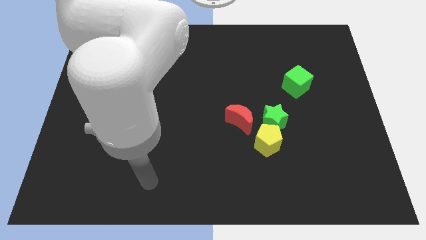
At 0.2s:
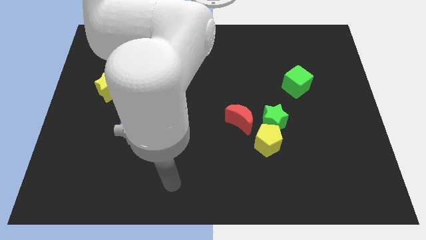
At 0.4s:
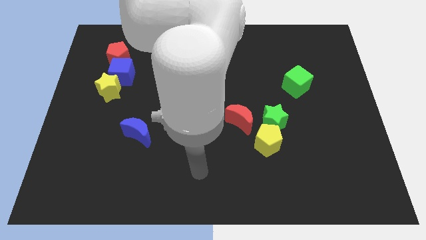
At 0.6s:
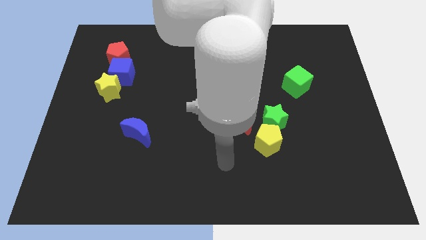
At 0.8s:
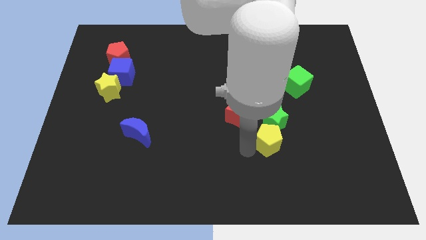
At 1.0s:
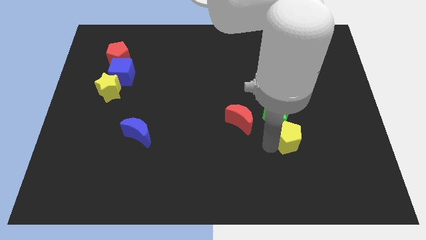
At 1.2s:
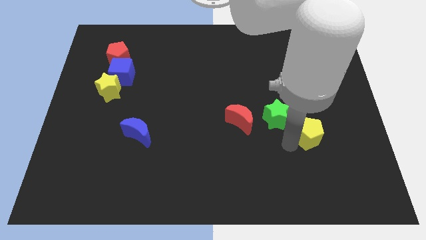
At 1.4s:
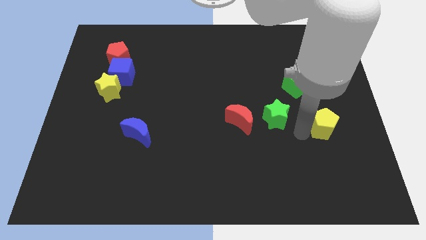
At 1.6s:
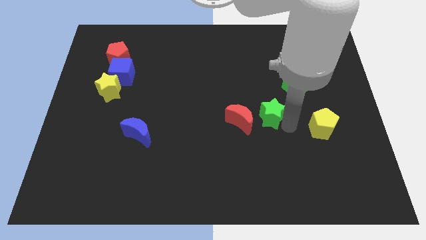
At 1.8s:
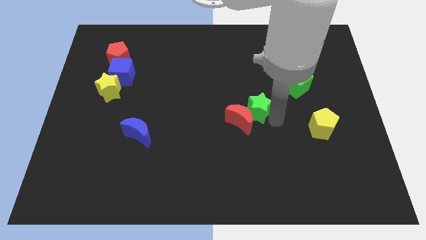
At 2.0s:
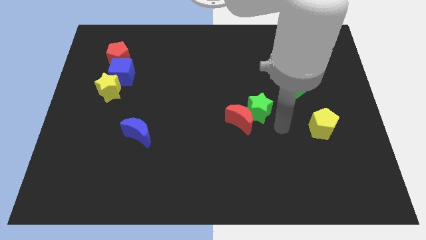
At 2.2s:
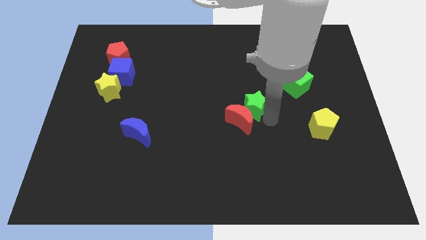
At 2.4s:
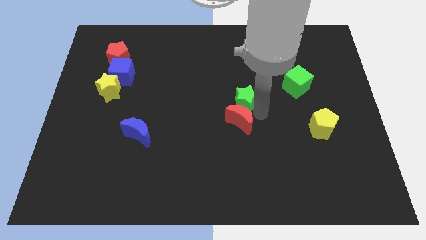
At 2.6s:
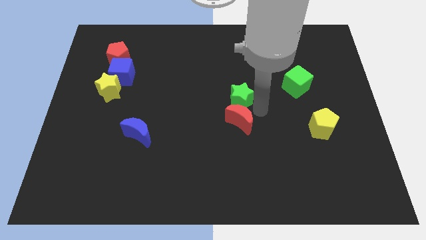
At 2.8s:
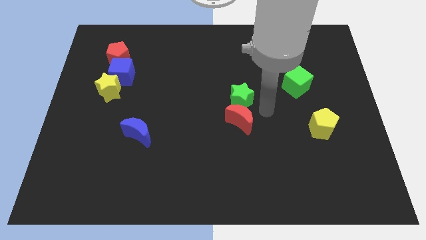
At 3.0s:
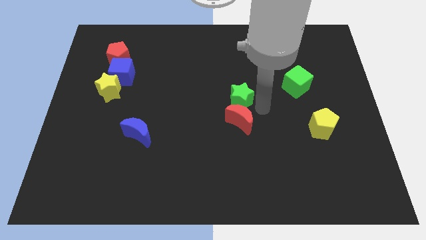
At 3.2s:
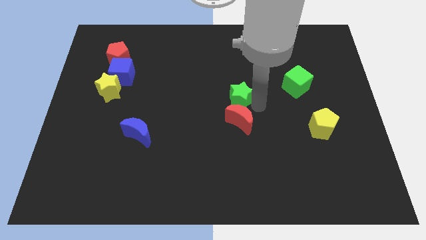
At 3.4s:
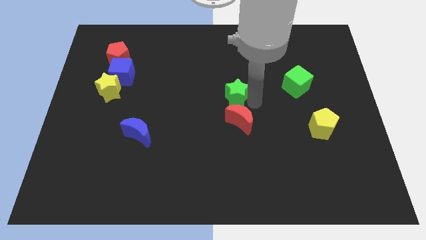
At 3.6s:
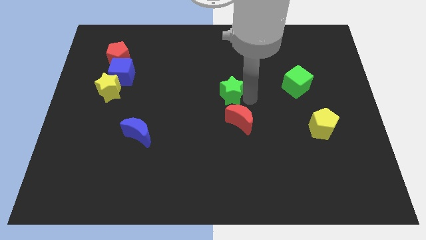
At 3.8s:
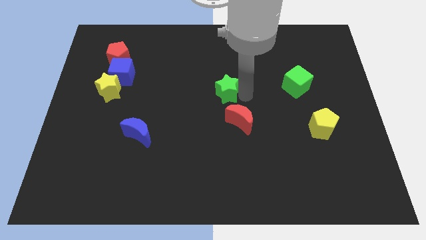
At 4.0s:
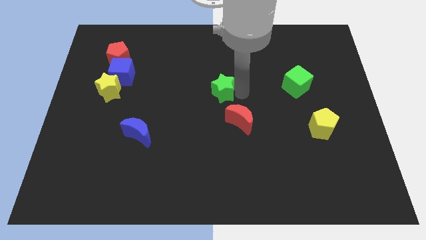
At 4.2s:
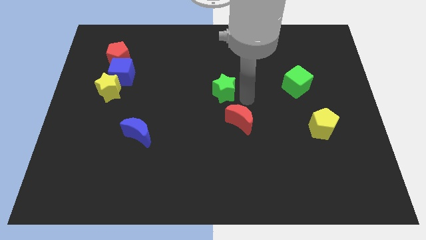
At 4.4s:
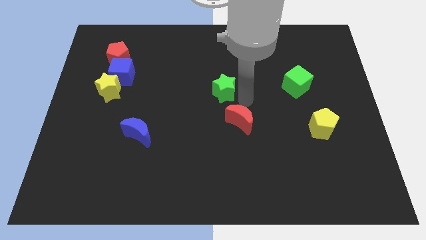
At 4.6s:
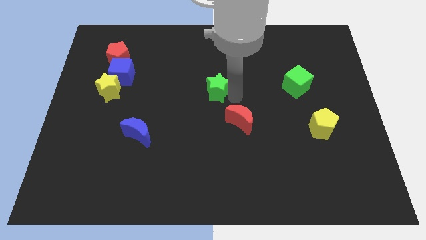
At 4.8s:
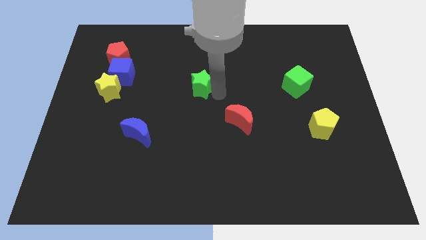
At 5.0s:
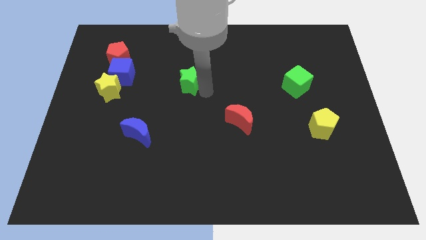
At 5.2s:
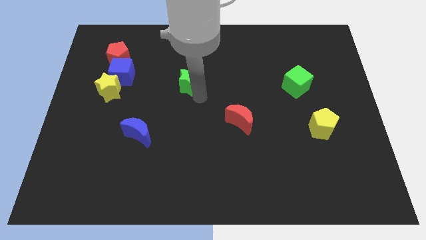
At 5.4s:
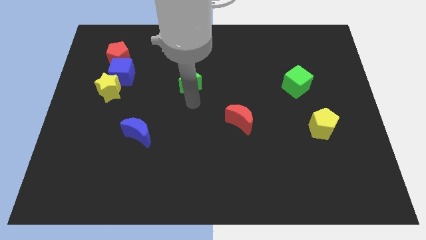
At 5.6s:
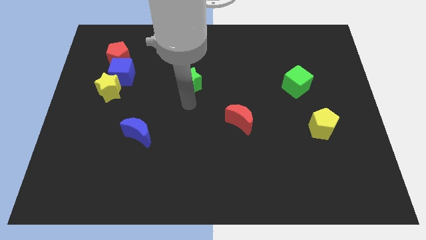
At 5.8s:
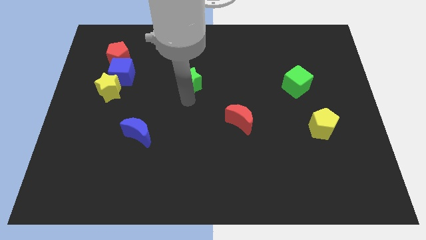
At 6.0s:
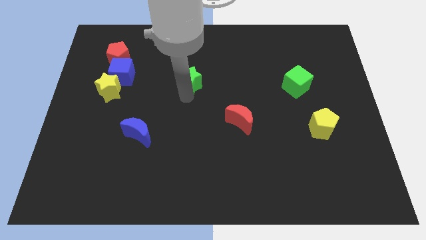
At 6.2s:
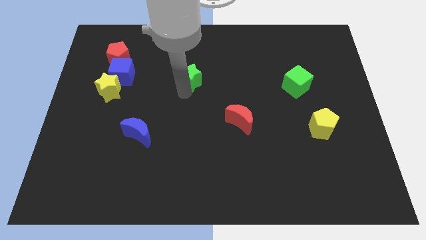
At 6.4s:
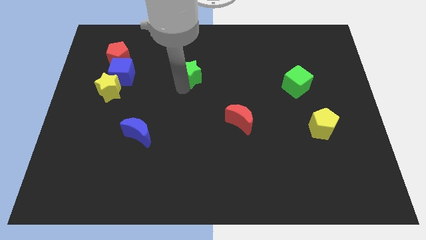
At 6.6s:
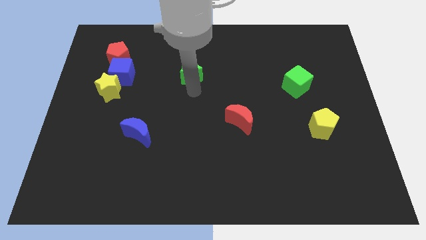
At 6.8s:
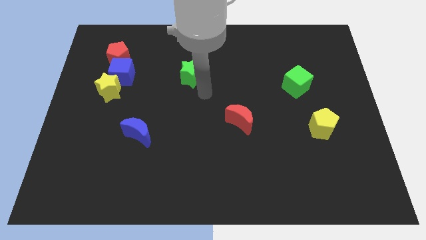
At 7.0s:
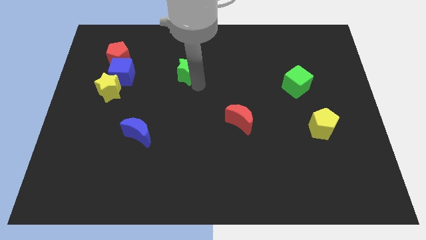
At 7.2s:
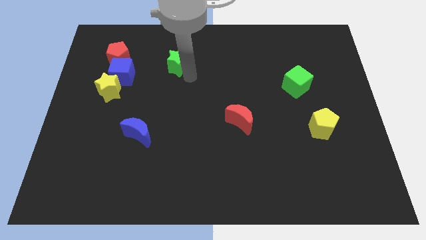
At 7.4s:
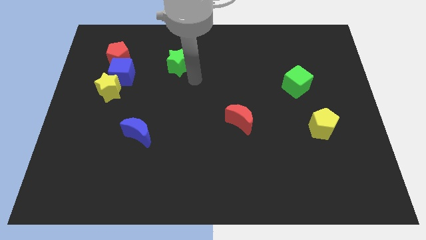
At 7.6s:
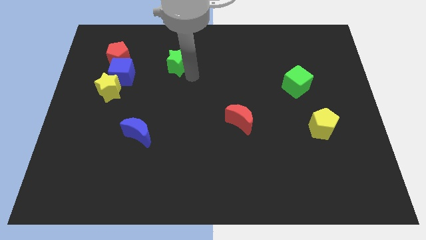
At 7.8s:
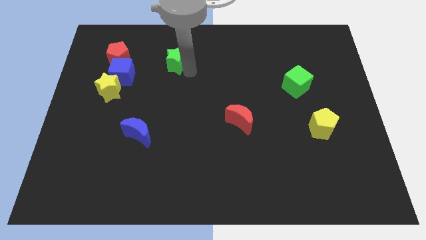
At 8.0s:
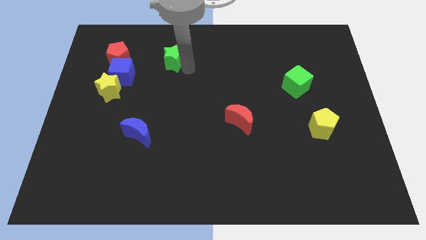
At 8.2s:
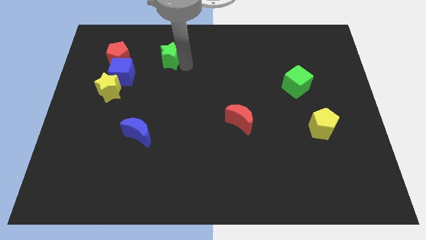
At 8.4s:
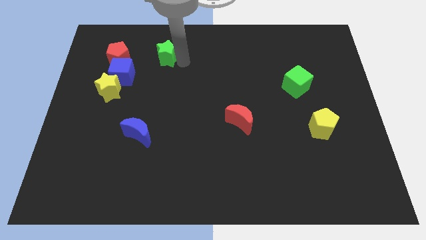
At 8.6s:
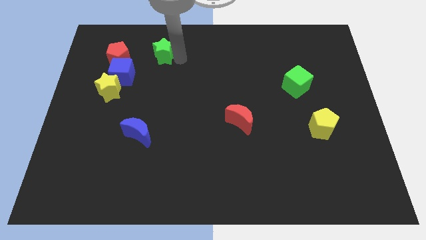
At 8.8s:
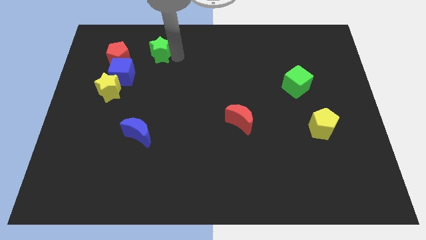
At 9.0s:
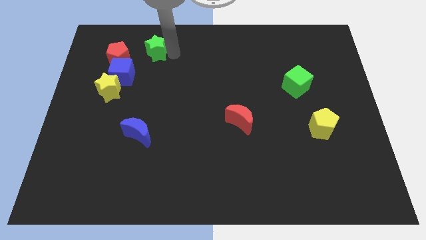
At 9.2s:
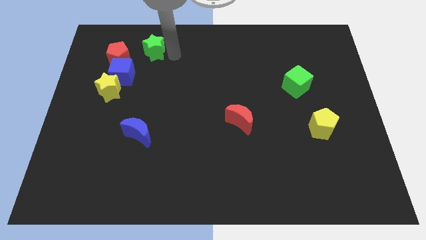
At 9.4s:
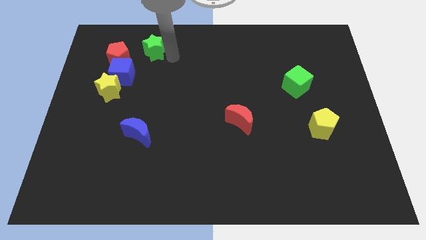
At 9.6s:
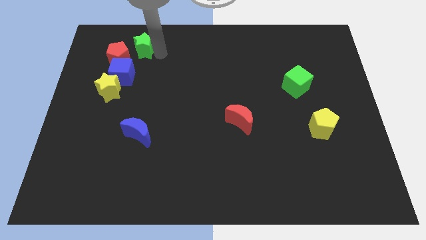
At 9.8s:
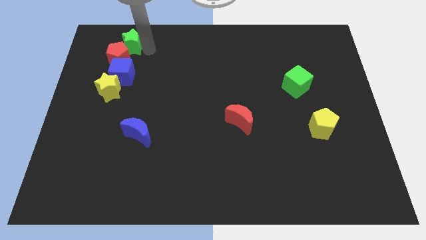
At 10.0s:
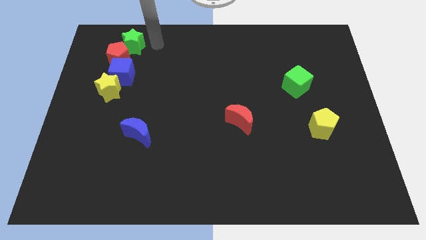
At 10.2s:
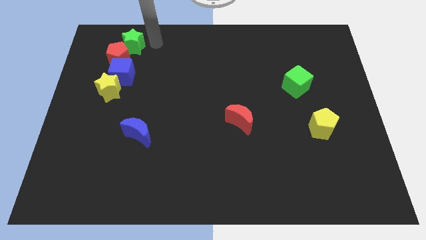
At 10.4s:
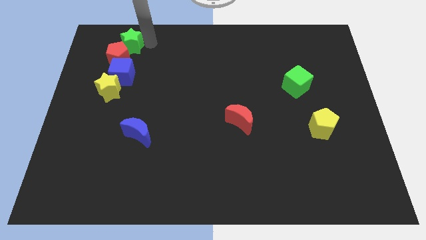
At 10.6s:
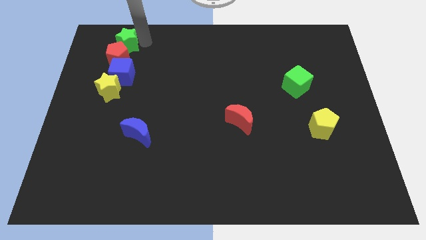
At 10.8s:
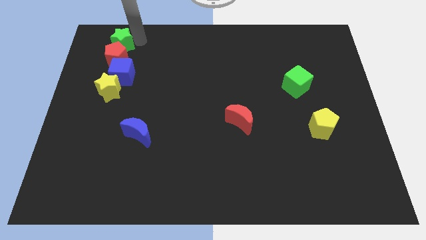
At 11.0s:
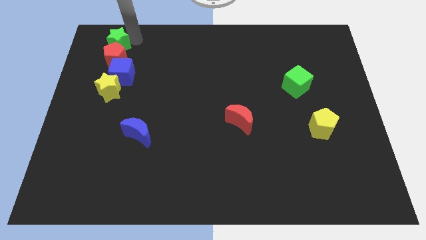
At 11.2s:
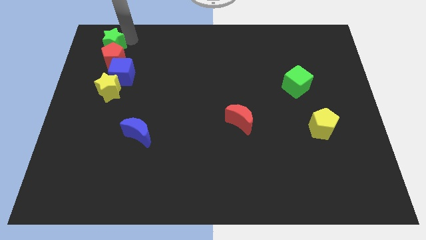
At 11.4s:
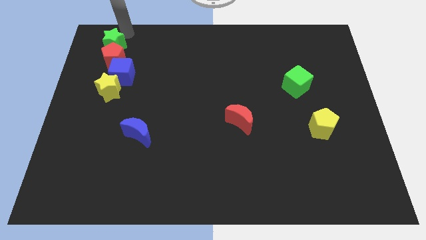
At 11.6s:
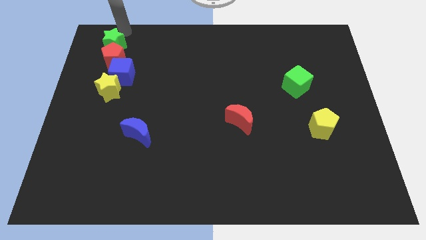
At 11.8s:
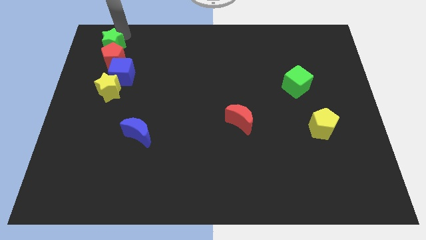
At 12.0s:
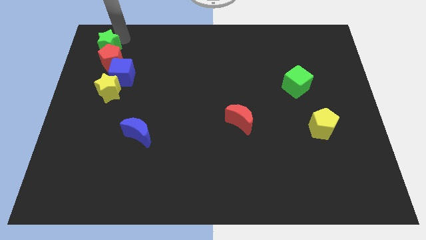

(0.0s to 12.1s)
slide the green star to the top left of the blue cube
